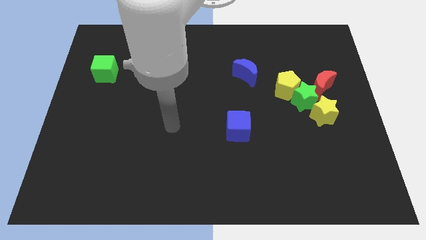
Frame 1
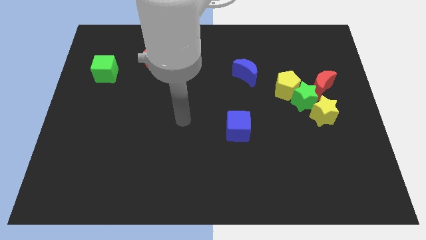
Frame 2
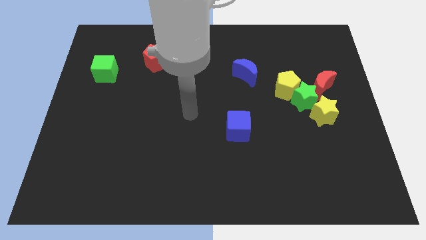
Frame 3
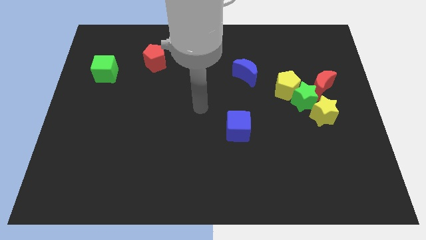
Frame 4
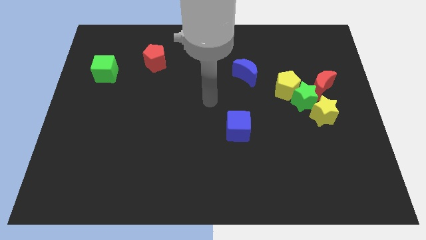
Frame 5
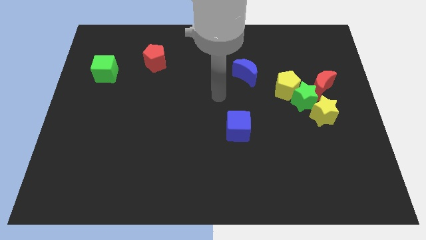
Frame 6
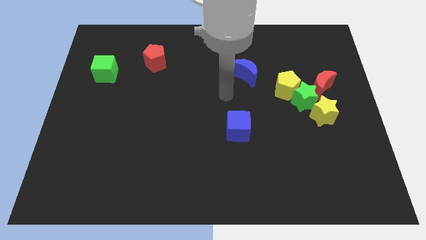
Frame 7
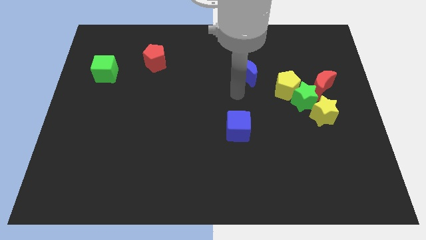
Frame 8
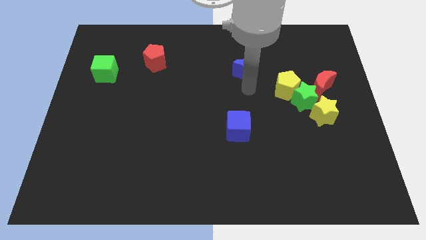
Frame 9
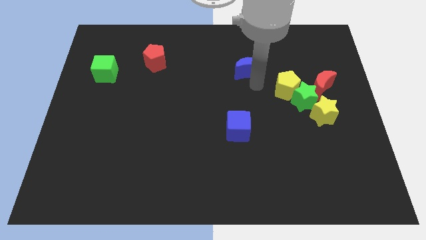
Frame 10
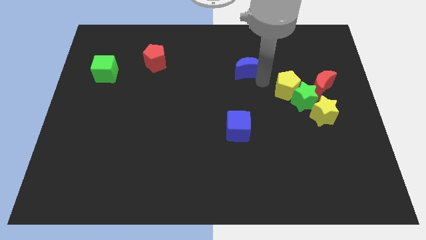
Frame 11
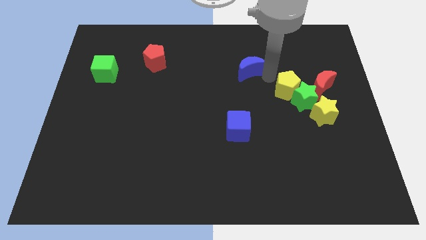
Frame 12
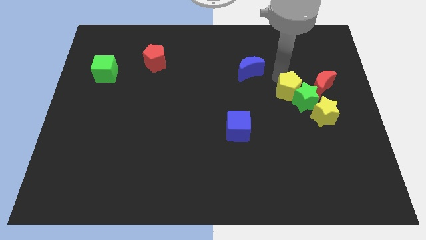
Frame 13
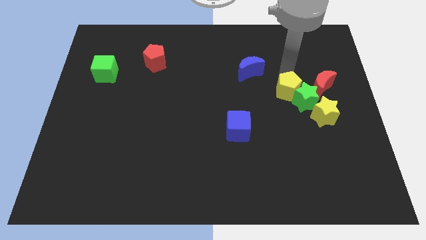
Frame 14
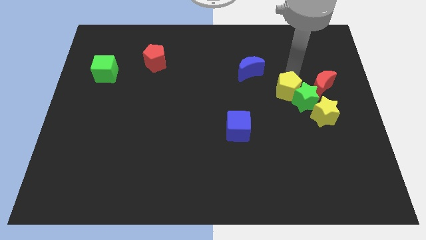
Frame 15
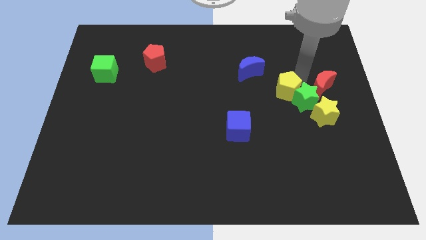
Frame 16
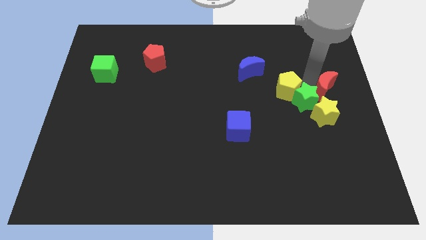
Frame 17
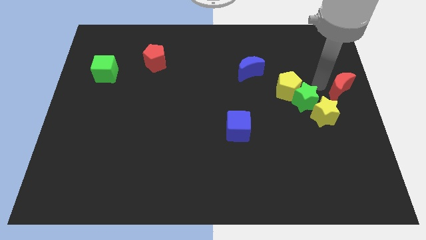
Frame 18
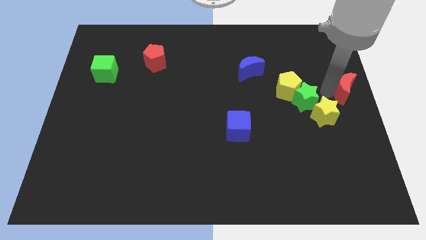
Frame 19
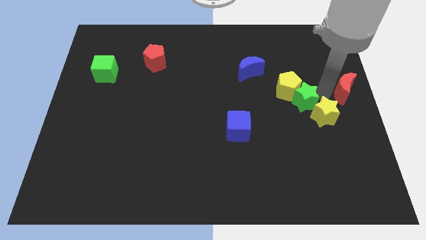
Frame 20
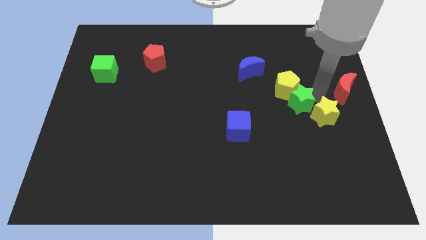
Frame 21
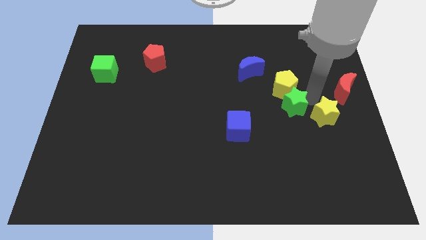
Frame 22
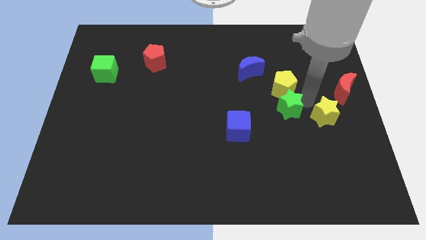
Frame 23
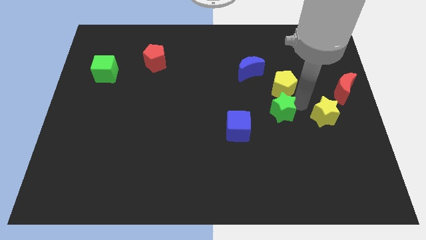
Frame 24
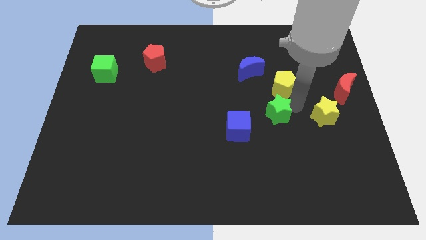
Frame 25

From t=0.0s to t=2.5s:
move the green star away from the group

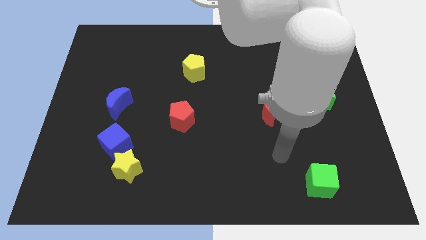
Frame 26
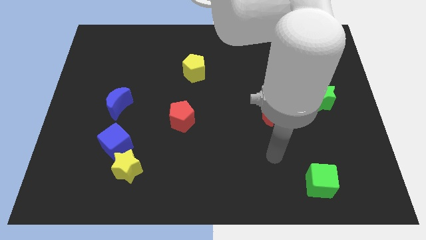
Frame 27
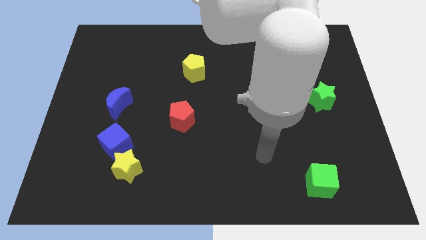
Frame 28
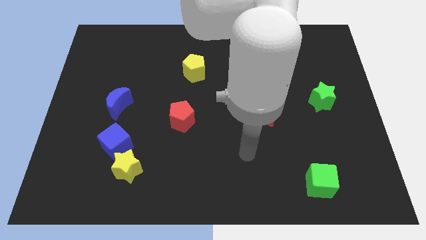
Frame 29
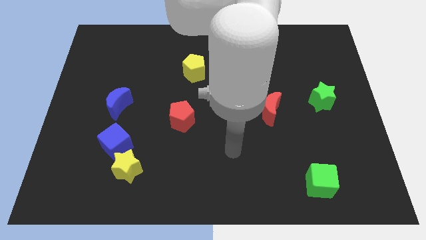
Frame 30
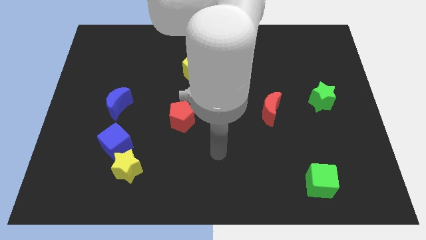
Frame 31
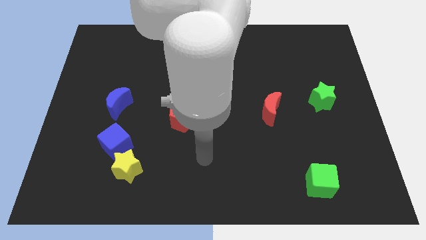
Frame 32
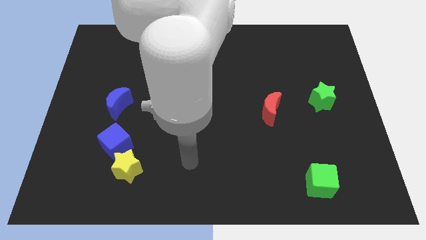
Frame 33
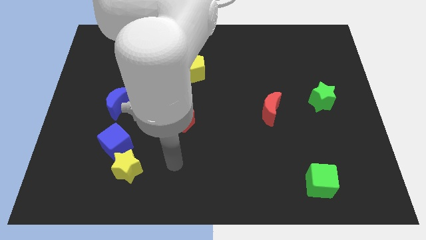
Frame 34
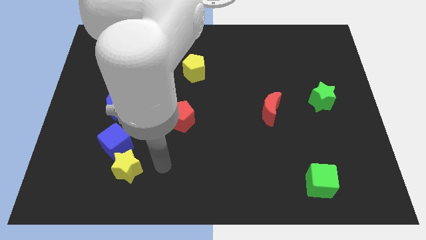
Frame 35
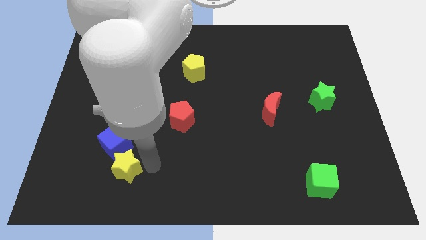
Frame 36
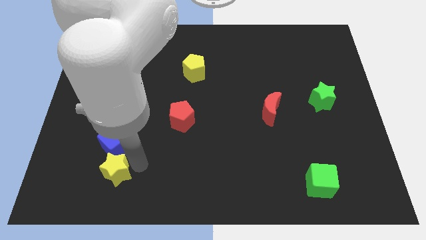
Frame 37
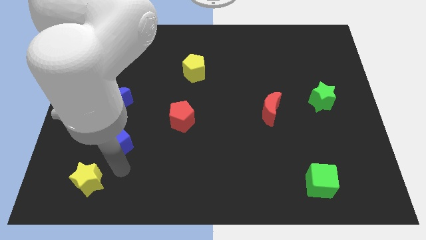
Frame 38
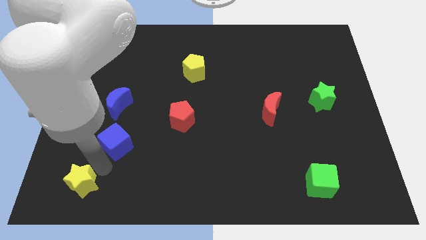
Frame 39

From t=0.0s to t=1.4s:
pull the blue cube apart from the yellow star

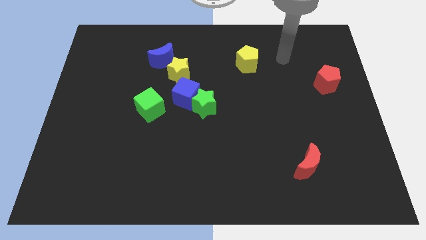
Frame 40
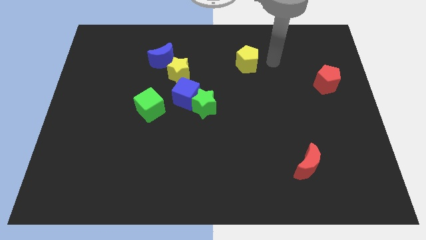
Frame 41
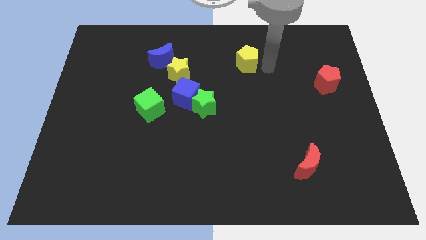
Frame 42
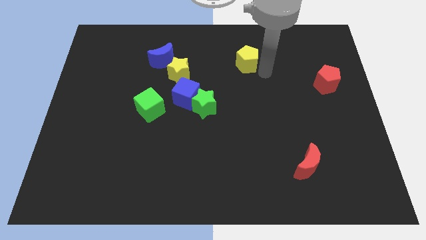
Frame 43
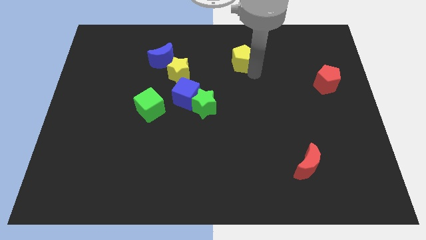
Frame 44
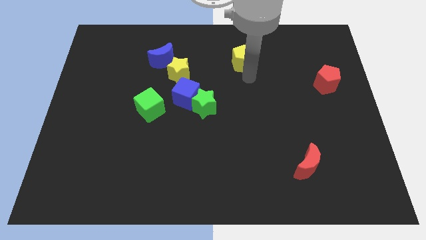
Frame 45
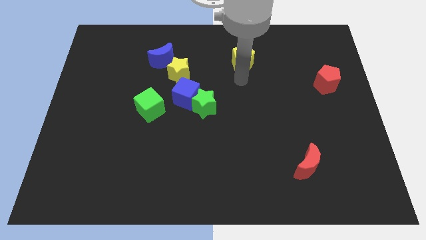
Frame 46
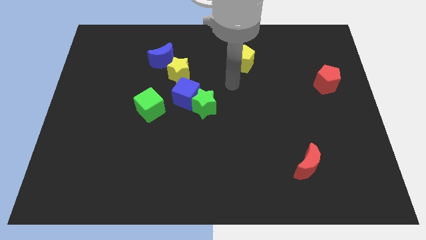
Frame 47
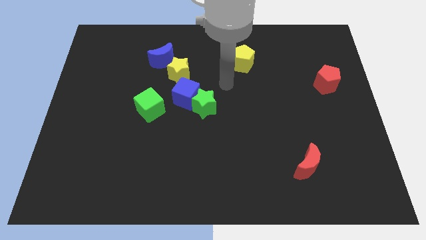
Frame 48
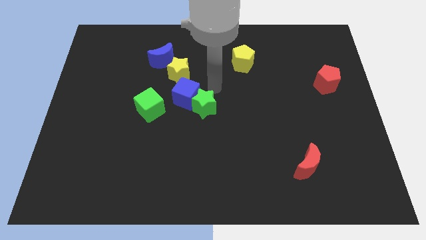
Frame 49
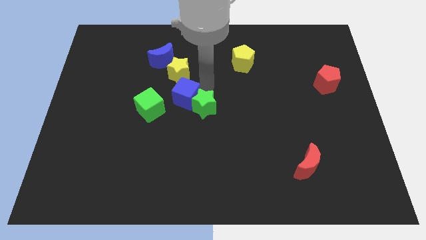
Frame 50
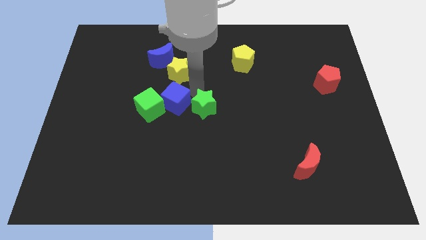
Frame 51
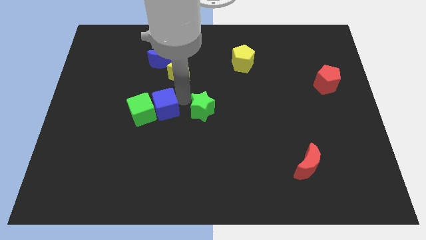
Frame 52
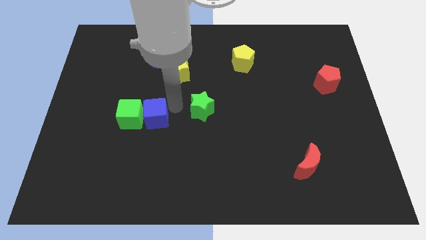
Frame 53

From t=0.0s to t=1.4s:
separate the green star from the blue cube

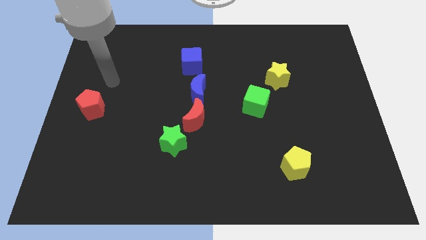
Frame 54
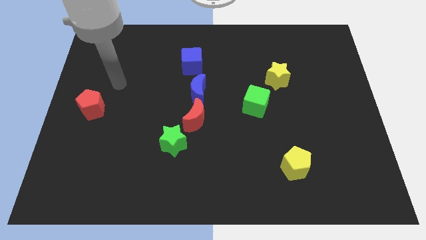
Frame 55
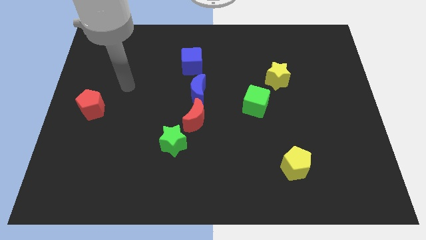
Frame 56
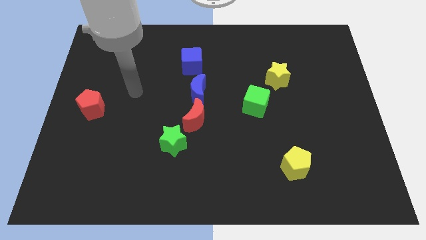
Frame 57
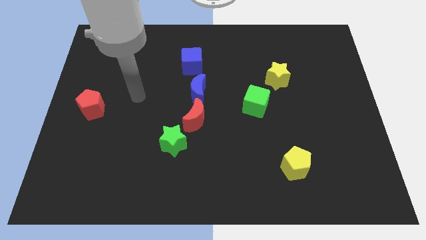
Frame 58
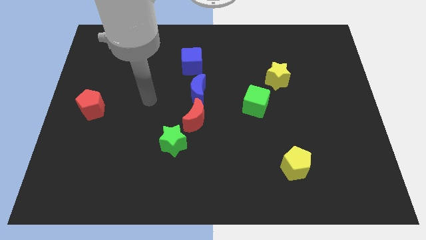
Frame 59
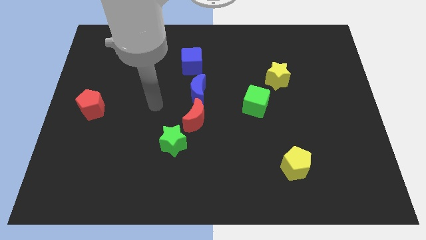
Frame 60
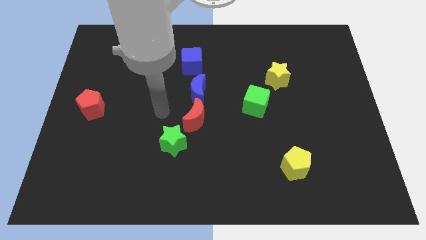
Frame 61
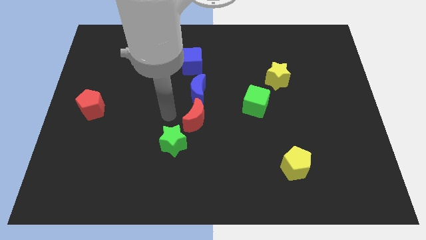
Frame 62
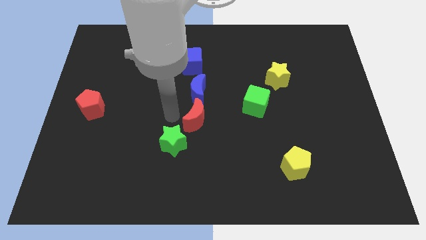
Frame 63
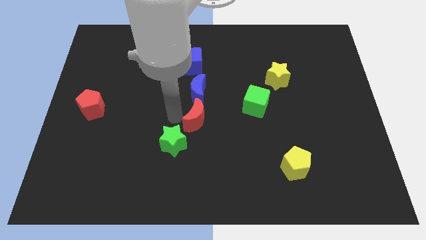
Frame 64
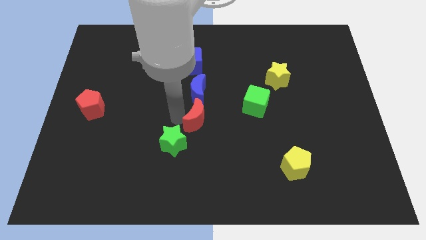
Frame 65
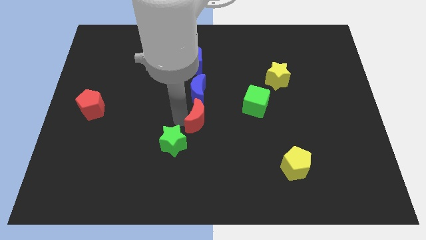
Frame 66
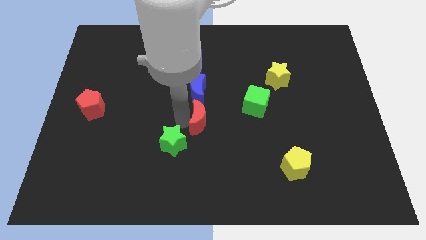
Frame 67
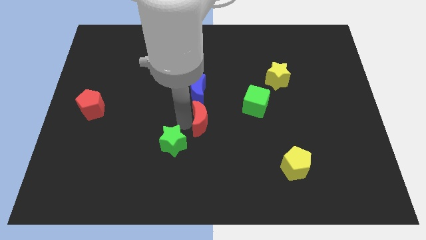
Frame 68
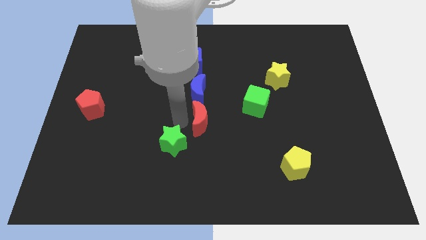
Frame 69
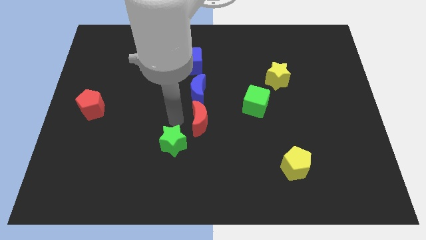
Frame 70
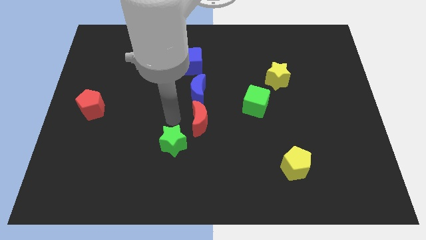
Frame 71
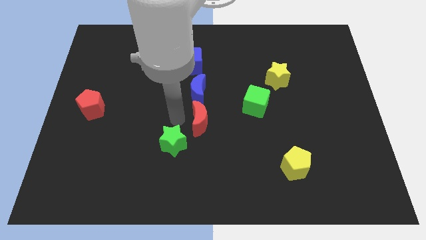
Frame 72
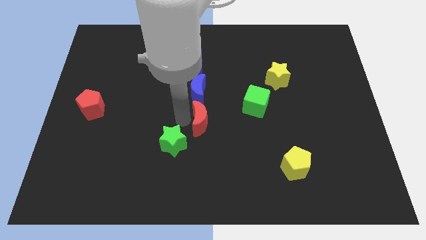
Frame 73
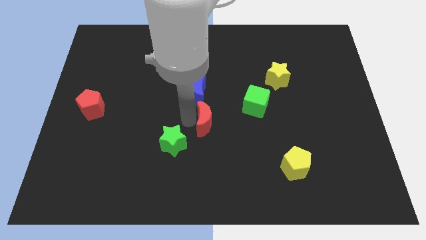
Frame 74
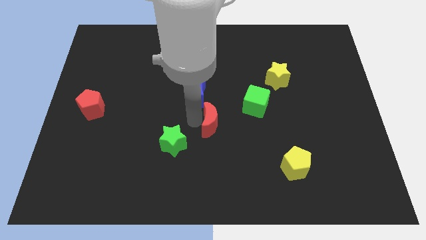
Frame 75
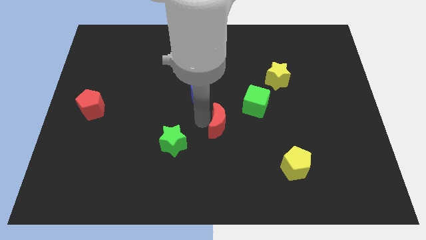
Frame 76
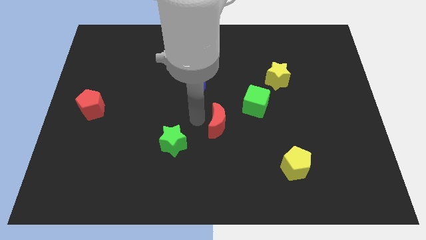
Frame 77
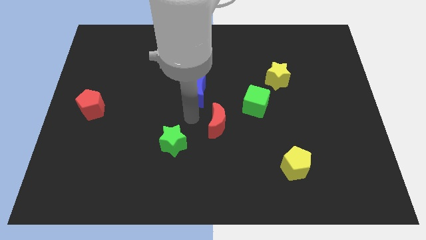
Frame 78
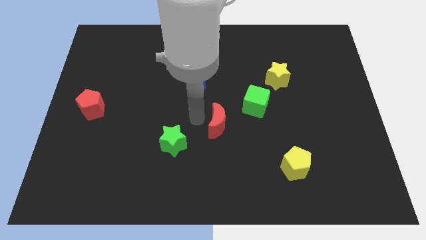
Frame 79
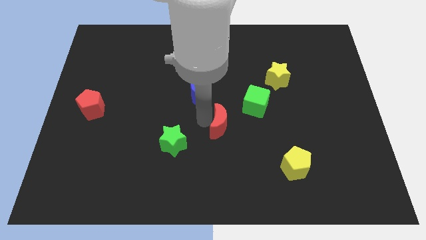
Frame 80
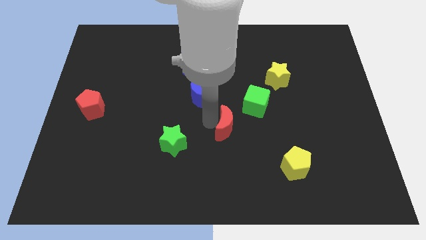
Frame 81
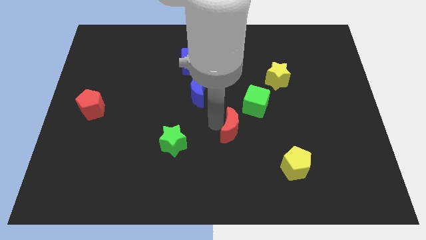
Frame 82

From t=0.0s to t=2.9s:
move the red moon away from the blue moon and green star

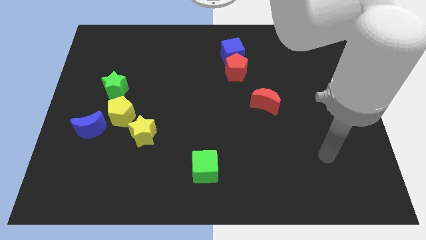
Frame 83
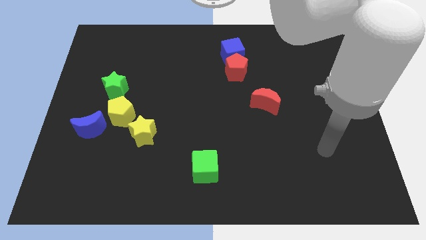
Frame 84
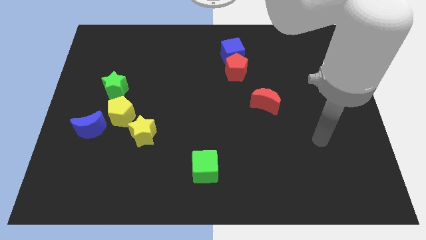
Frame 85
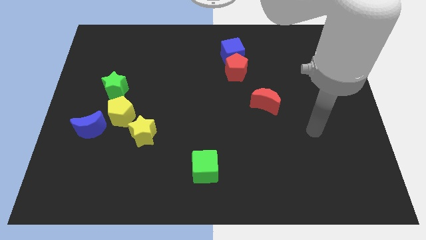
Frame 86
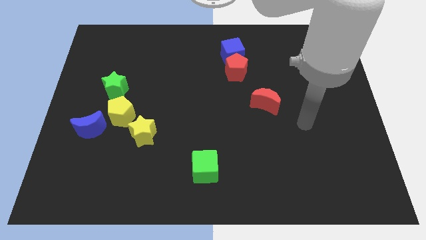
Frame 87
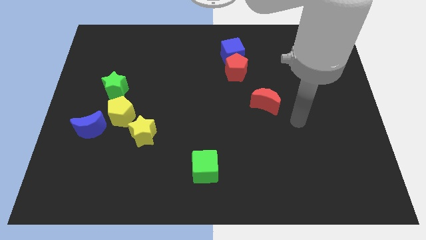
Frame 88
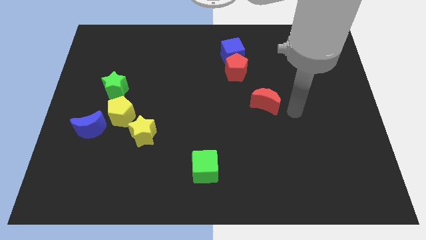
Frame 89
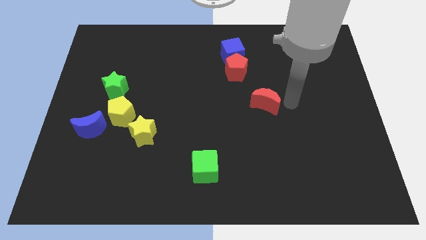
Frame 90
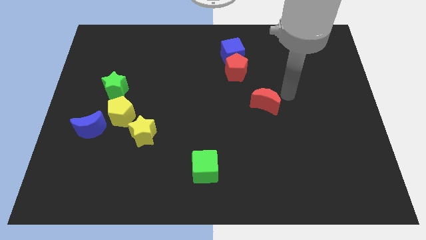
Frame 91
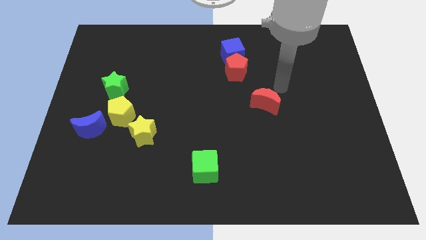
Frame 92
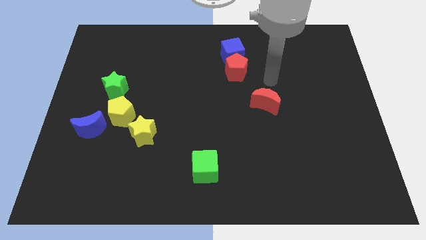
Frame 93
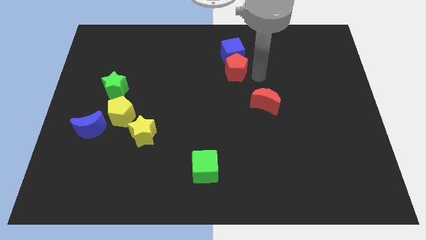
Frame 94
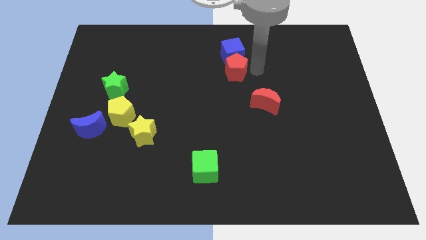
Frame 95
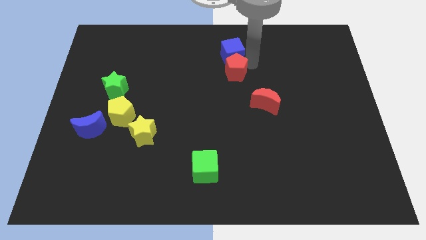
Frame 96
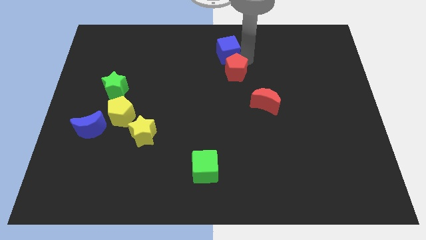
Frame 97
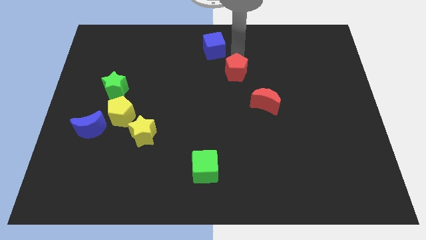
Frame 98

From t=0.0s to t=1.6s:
separate the red pentagon from the blue cube
